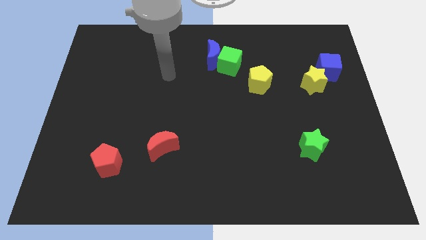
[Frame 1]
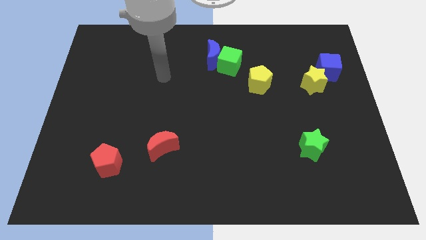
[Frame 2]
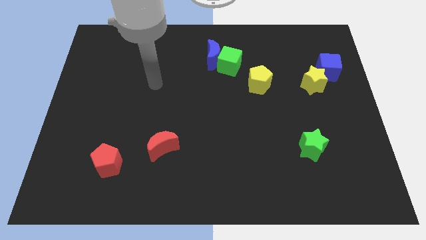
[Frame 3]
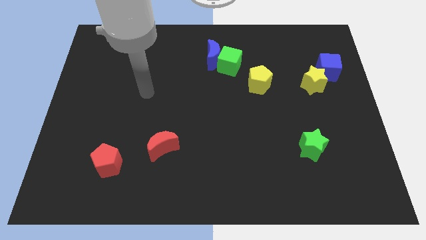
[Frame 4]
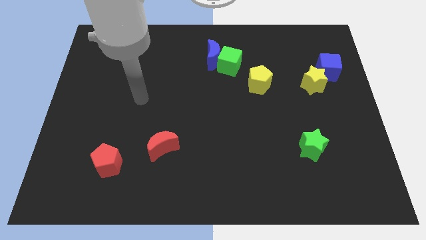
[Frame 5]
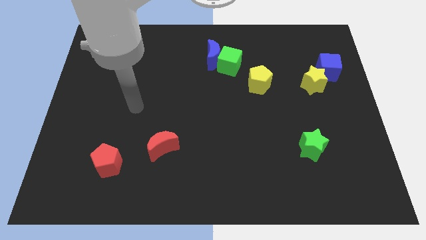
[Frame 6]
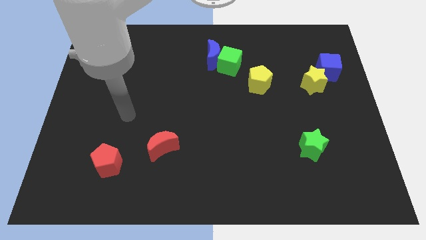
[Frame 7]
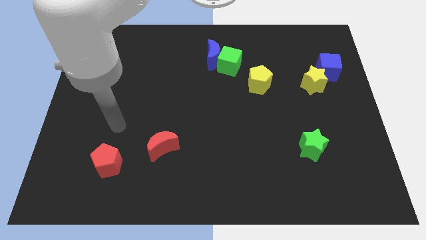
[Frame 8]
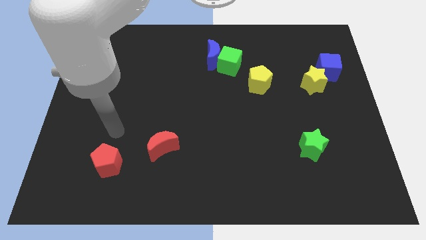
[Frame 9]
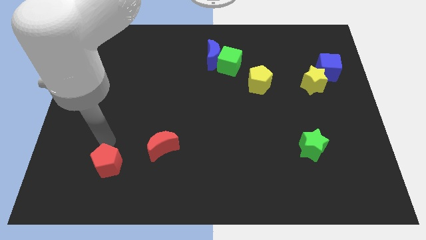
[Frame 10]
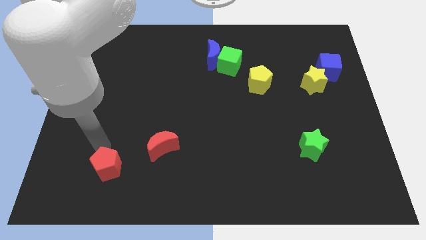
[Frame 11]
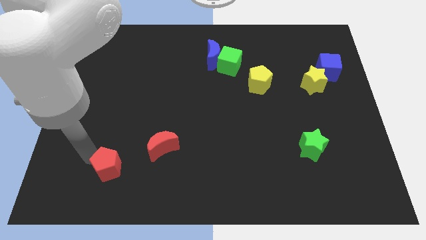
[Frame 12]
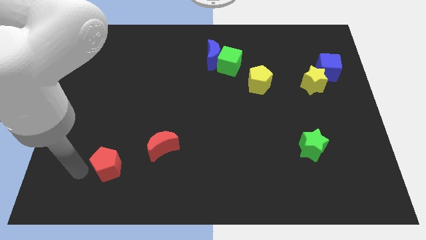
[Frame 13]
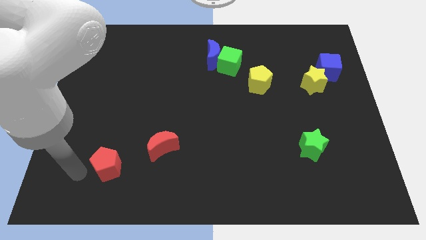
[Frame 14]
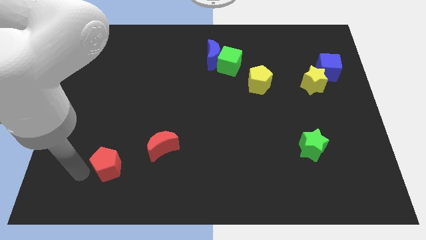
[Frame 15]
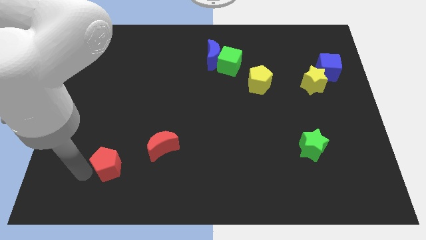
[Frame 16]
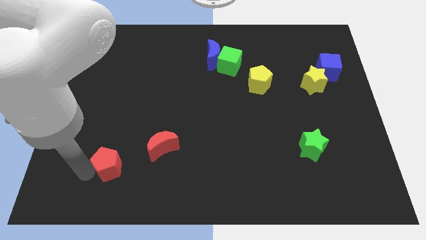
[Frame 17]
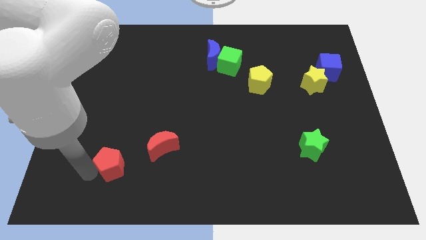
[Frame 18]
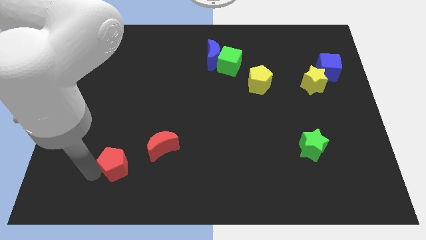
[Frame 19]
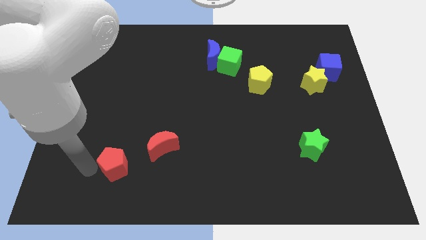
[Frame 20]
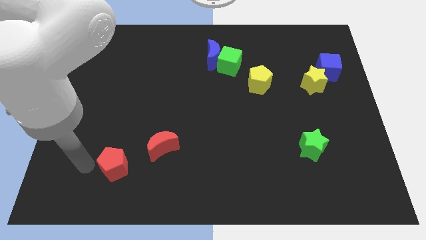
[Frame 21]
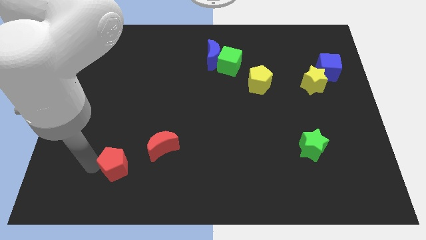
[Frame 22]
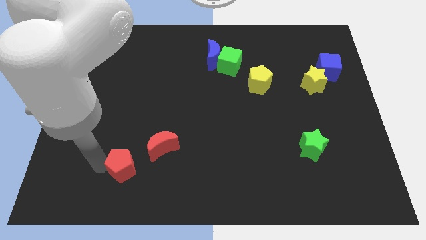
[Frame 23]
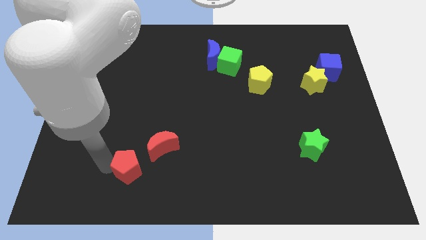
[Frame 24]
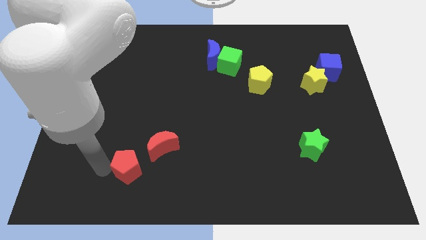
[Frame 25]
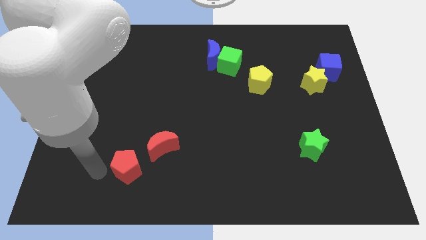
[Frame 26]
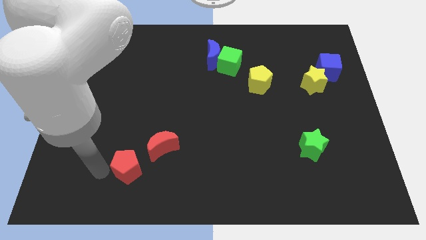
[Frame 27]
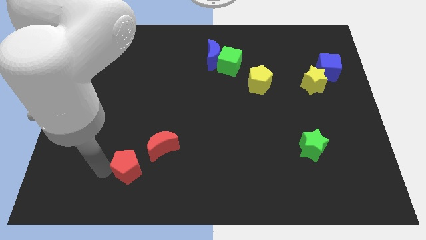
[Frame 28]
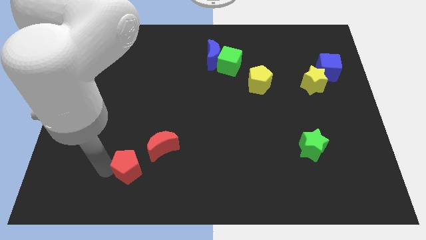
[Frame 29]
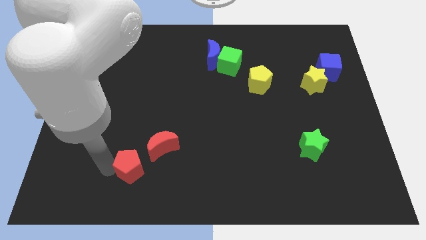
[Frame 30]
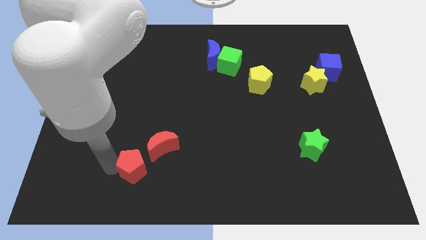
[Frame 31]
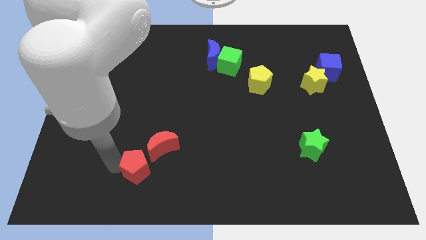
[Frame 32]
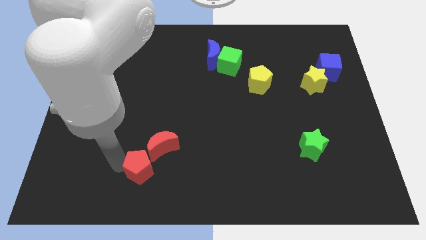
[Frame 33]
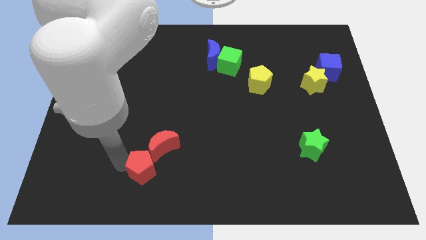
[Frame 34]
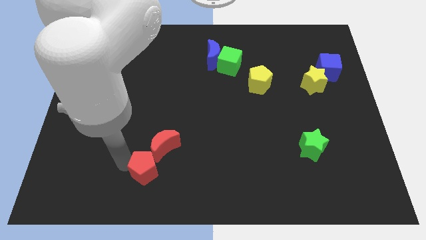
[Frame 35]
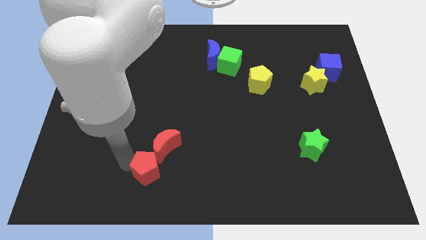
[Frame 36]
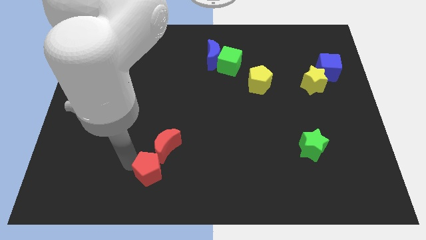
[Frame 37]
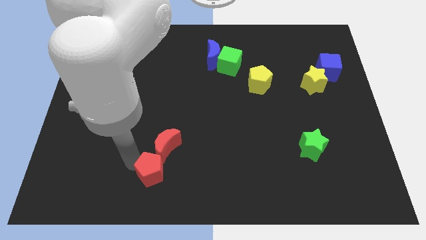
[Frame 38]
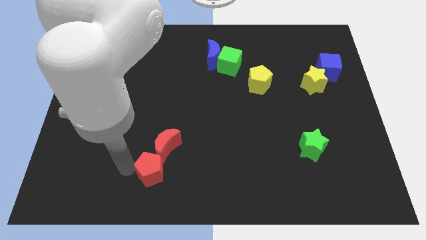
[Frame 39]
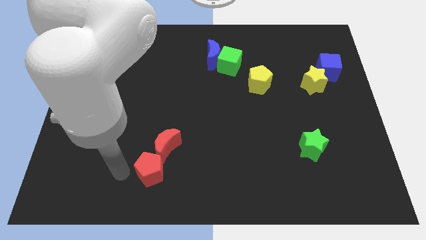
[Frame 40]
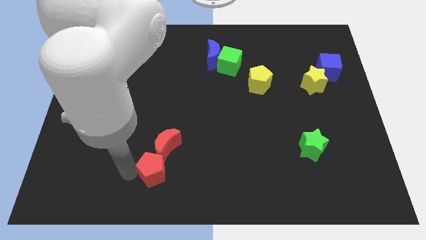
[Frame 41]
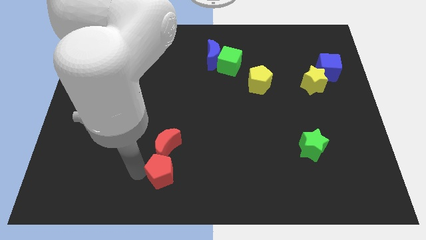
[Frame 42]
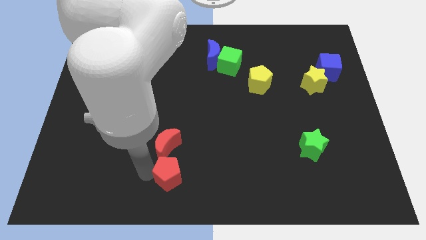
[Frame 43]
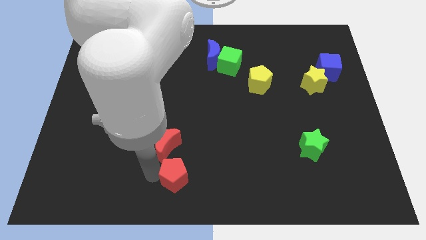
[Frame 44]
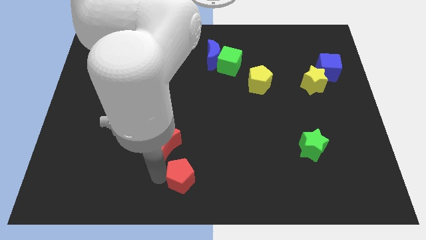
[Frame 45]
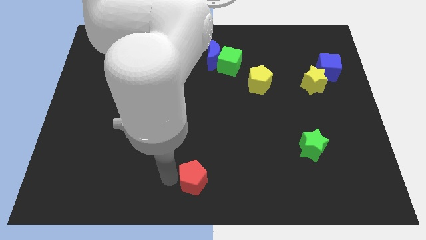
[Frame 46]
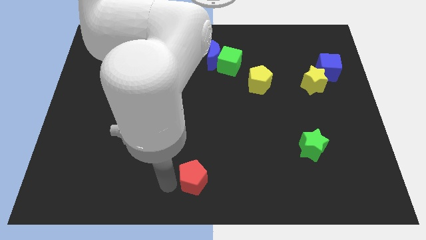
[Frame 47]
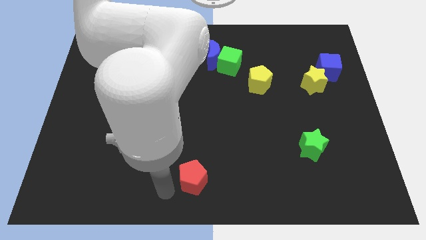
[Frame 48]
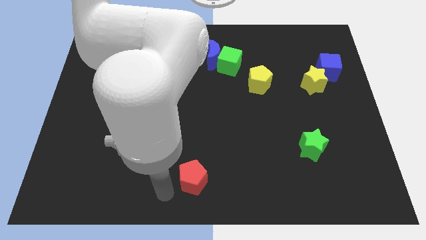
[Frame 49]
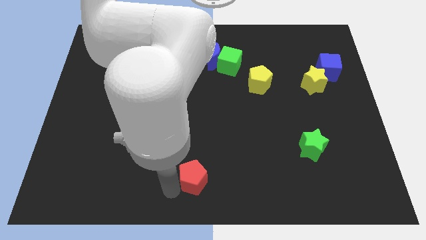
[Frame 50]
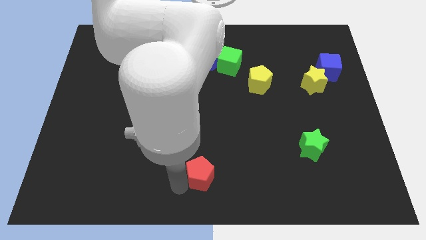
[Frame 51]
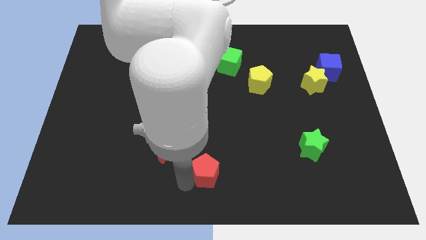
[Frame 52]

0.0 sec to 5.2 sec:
slide the red pentagon right

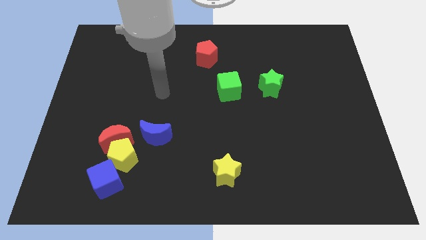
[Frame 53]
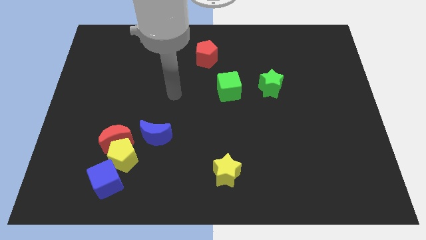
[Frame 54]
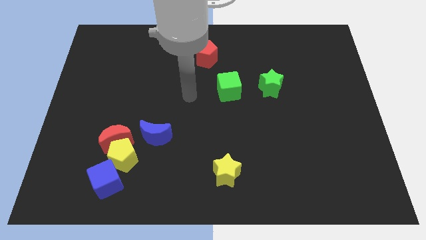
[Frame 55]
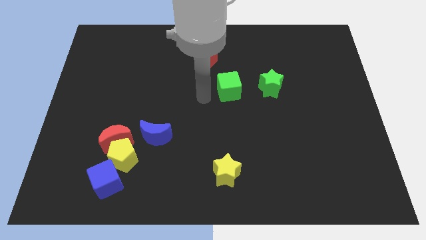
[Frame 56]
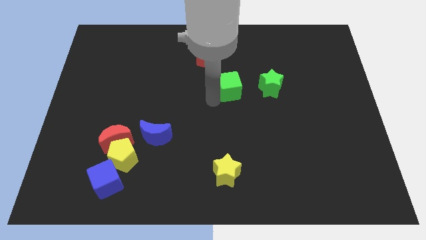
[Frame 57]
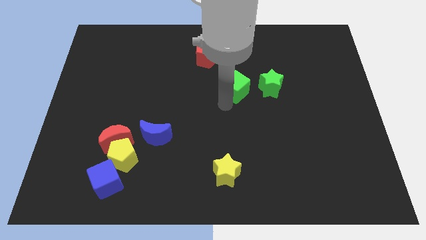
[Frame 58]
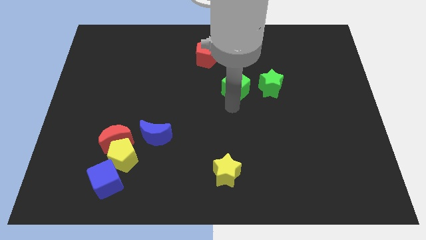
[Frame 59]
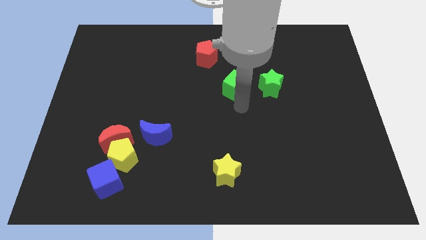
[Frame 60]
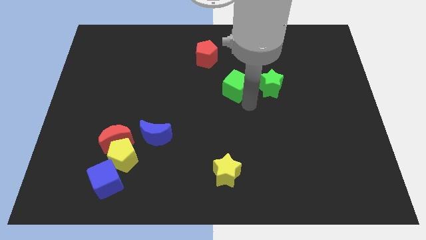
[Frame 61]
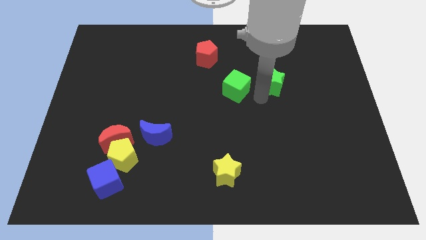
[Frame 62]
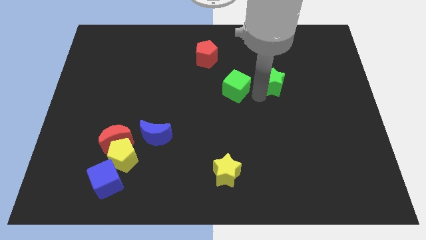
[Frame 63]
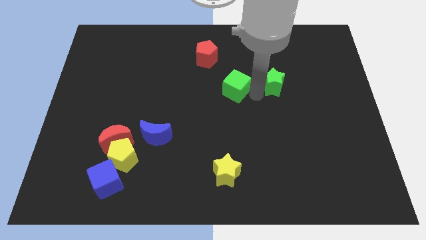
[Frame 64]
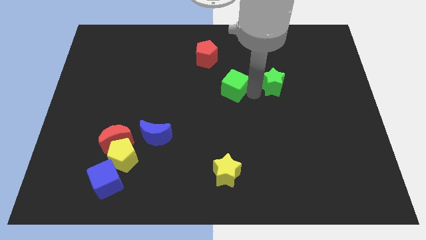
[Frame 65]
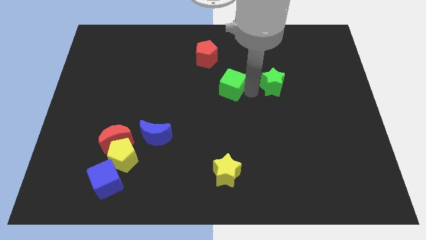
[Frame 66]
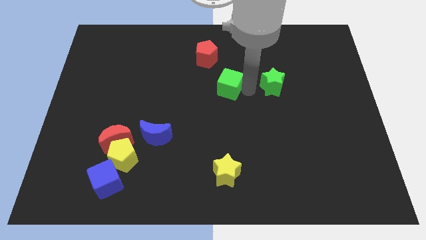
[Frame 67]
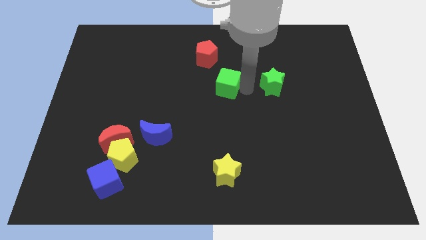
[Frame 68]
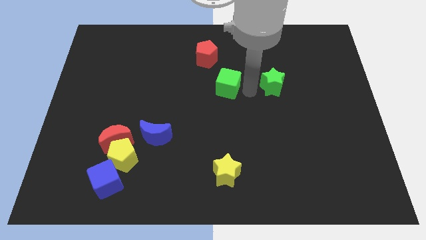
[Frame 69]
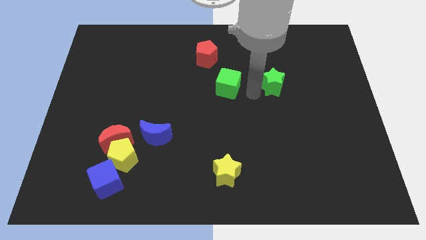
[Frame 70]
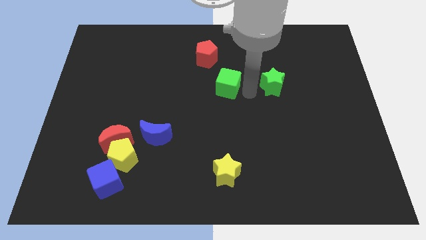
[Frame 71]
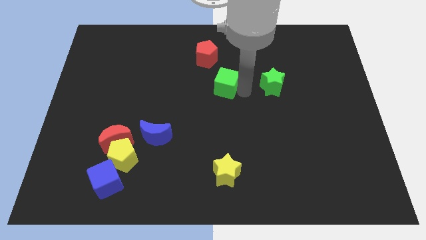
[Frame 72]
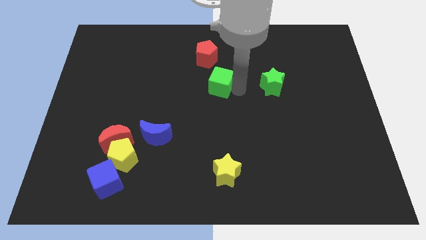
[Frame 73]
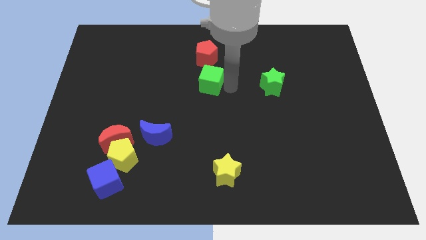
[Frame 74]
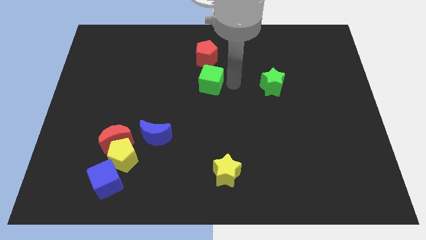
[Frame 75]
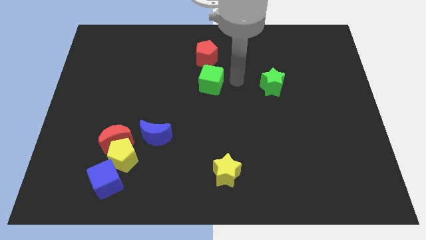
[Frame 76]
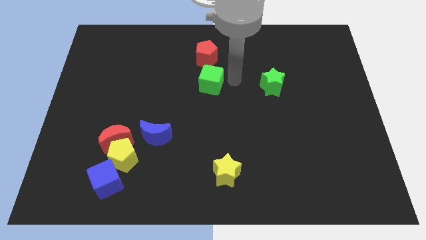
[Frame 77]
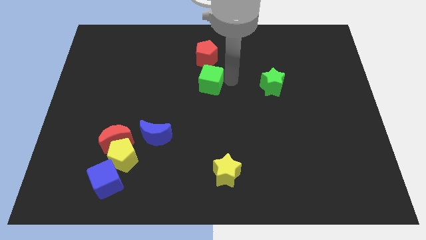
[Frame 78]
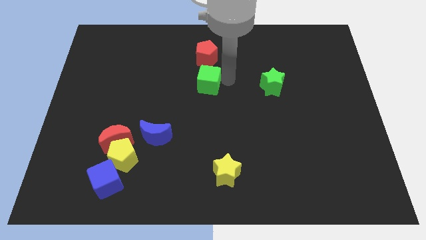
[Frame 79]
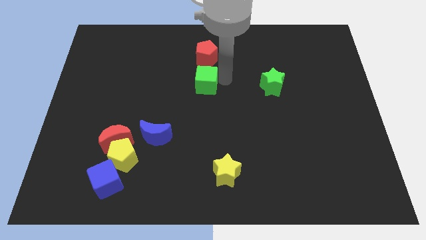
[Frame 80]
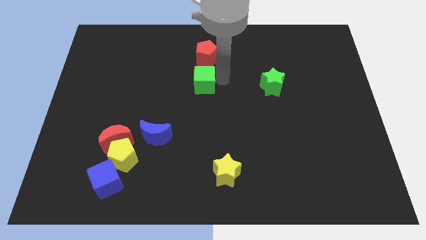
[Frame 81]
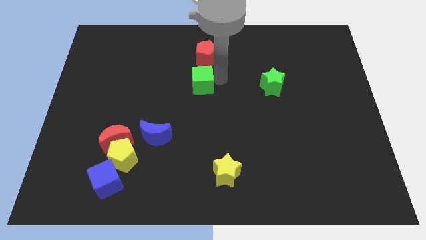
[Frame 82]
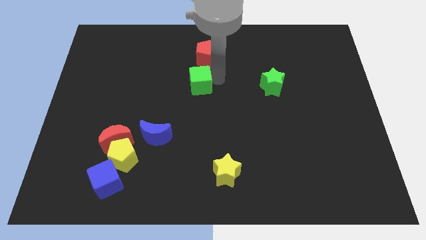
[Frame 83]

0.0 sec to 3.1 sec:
move the green cube to the left slightly

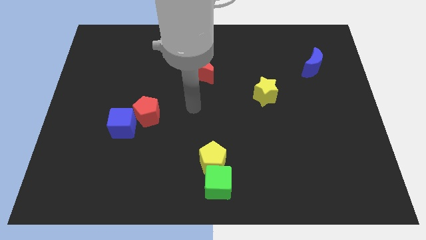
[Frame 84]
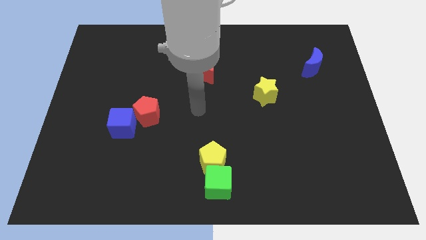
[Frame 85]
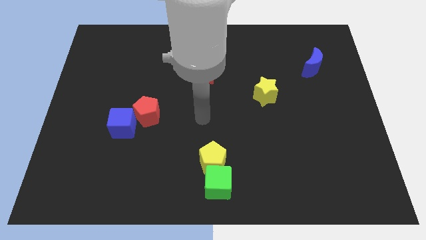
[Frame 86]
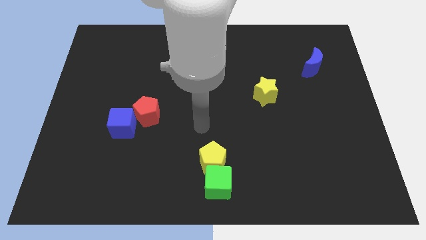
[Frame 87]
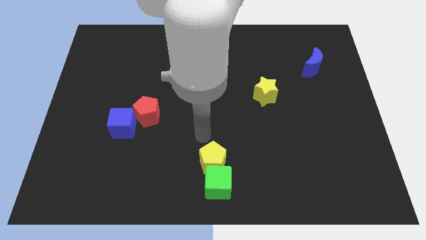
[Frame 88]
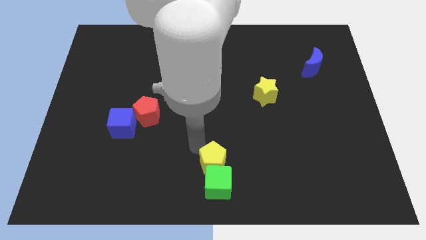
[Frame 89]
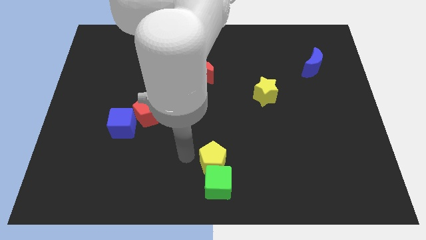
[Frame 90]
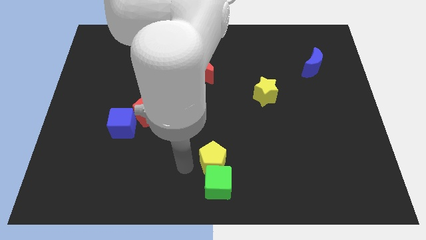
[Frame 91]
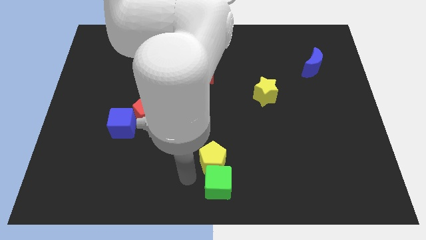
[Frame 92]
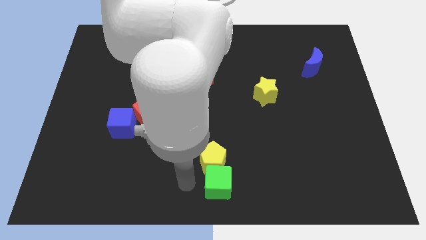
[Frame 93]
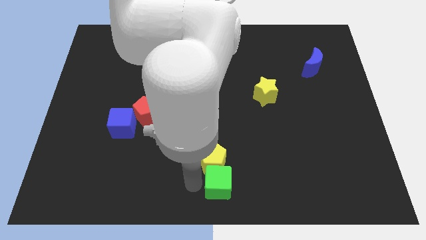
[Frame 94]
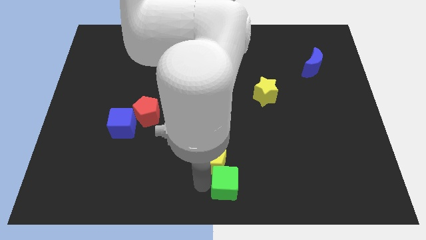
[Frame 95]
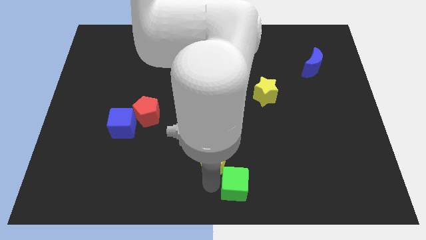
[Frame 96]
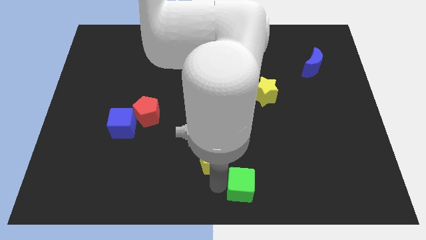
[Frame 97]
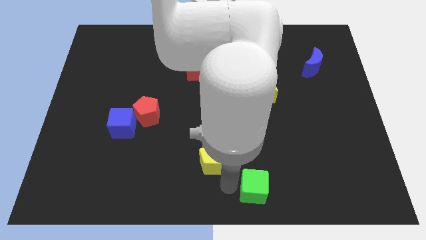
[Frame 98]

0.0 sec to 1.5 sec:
slide the green cube to the right a bit
